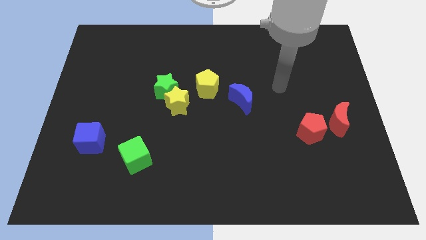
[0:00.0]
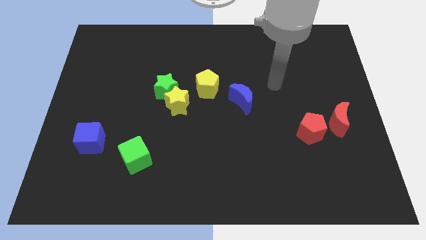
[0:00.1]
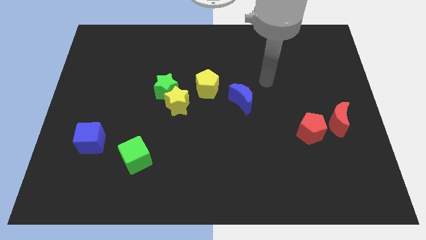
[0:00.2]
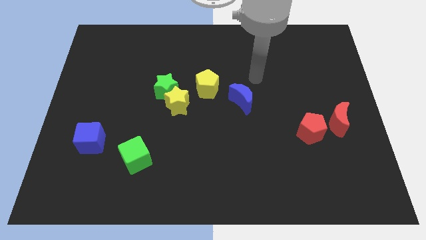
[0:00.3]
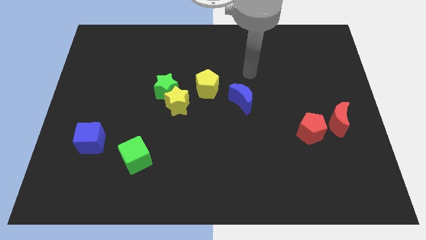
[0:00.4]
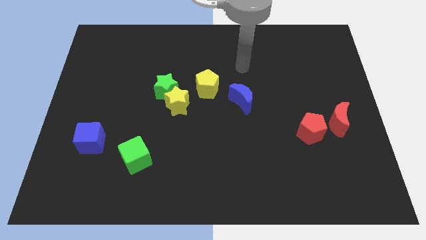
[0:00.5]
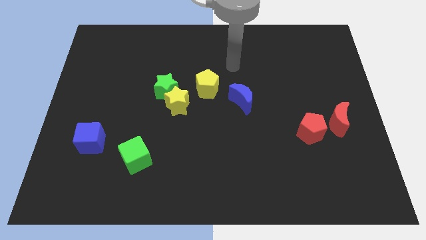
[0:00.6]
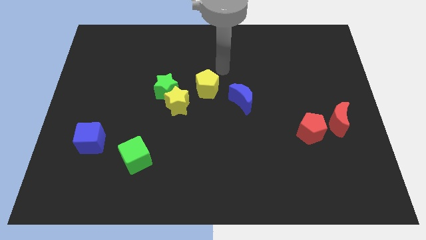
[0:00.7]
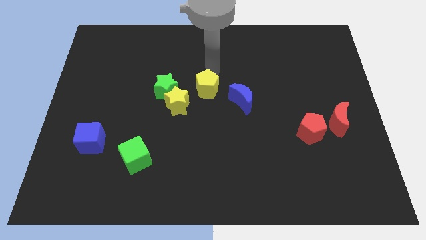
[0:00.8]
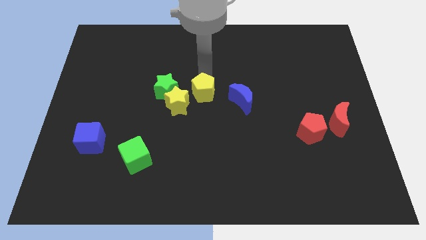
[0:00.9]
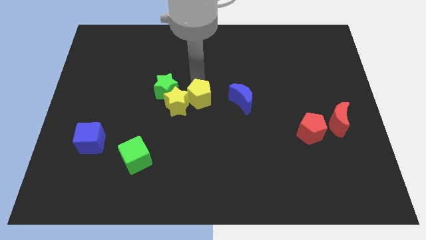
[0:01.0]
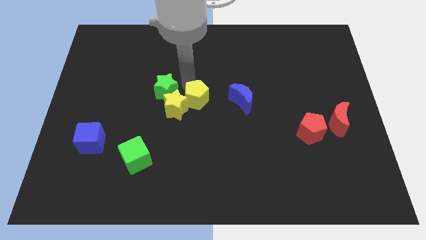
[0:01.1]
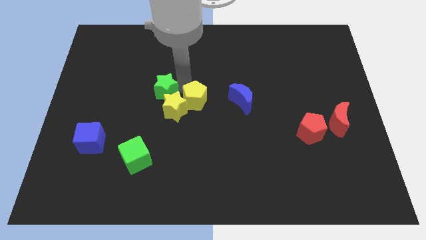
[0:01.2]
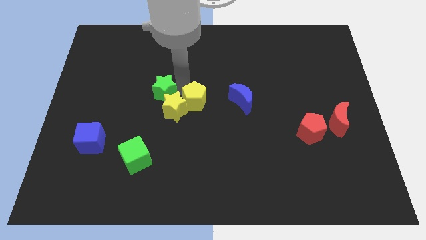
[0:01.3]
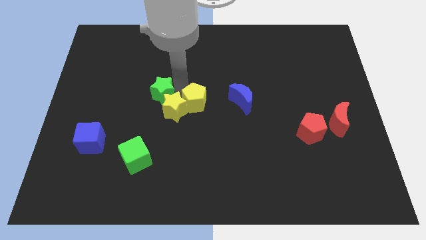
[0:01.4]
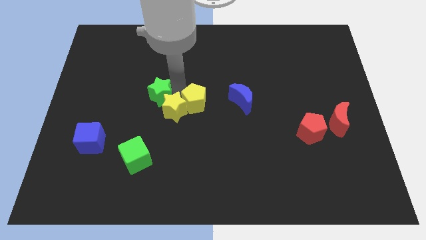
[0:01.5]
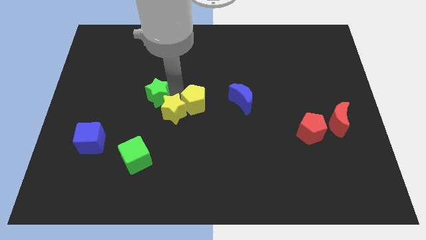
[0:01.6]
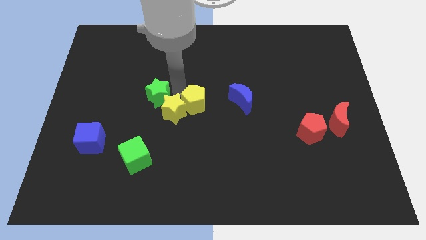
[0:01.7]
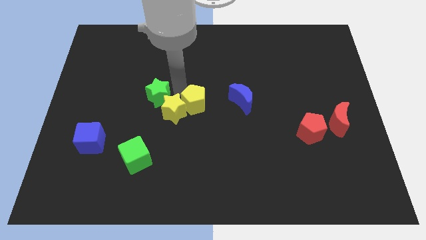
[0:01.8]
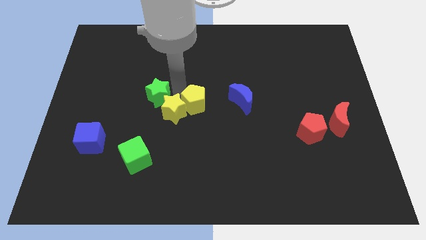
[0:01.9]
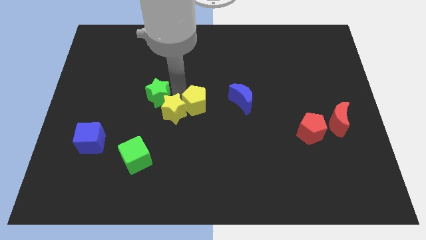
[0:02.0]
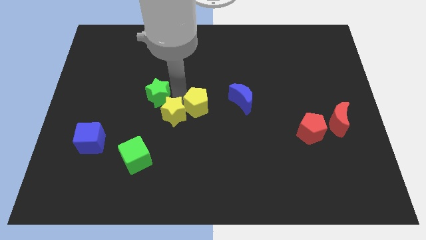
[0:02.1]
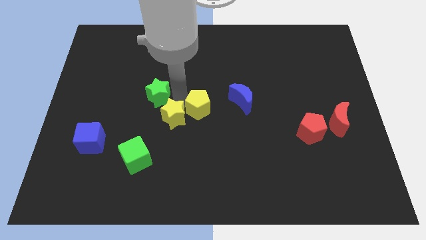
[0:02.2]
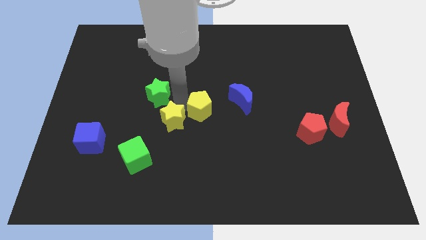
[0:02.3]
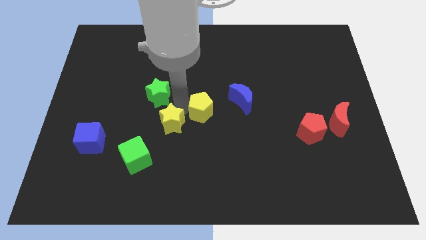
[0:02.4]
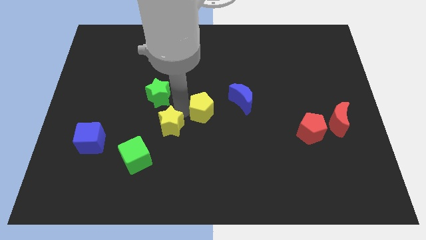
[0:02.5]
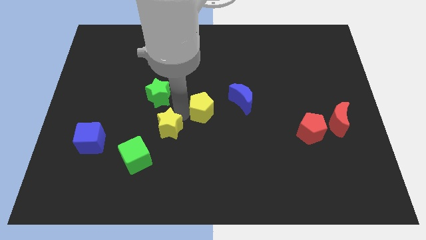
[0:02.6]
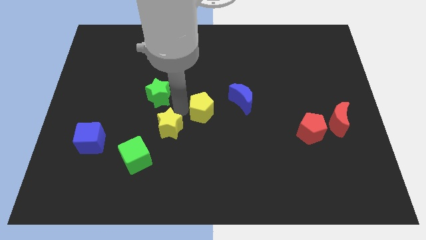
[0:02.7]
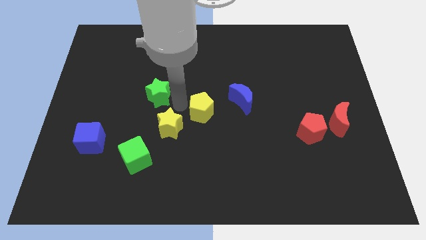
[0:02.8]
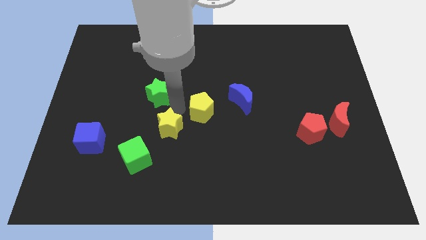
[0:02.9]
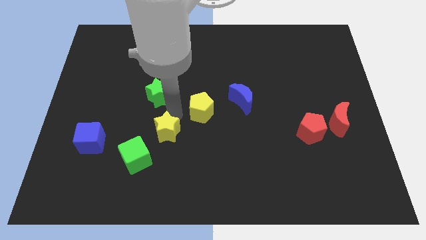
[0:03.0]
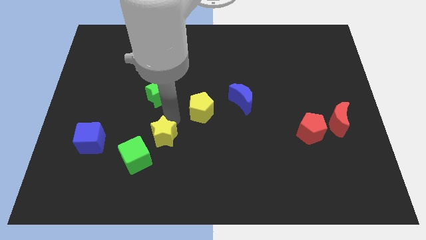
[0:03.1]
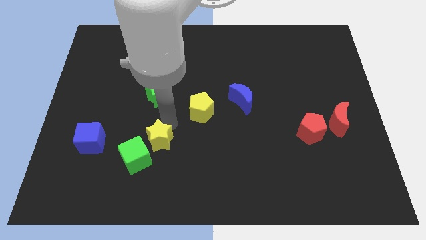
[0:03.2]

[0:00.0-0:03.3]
move the yellow star away from the green star and yellow pentagon

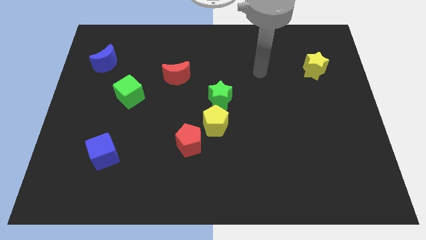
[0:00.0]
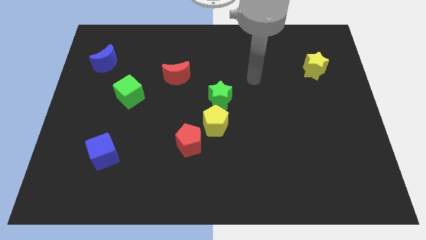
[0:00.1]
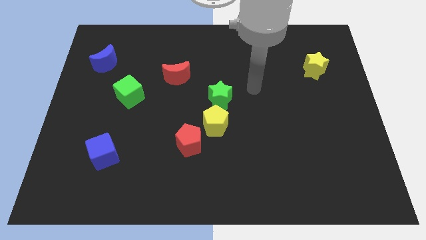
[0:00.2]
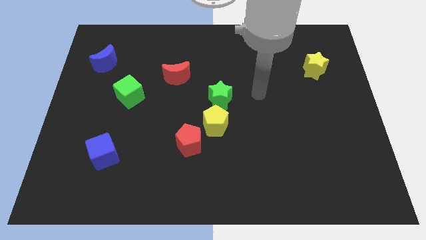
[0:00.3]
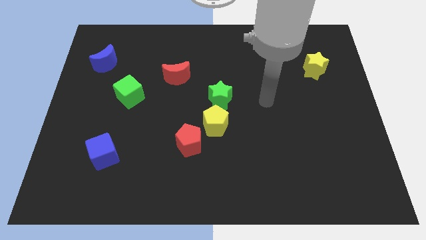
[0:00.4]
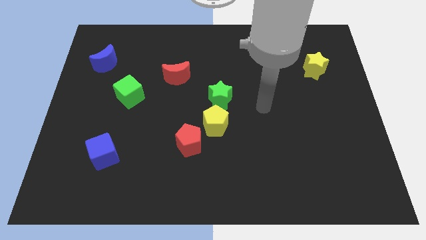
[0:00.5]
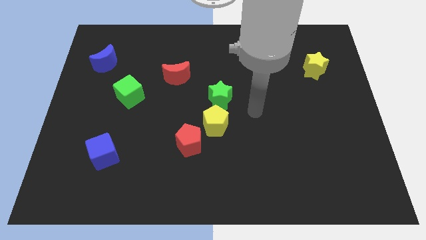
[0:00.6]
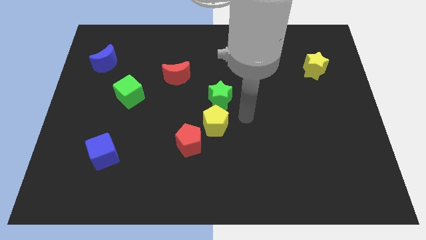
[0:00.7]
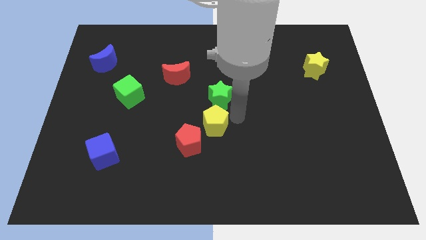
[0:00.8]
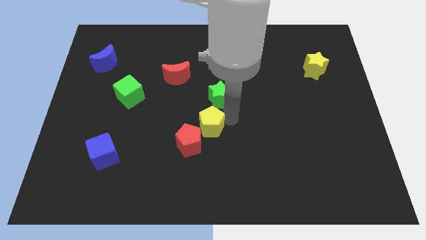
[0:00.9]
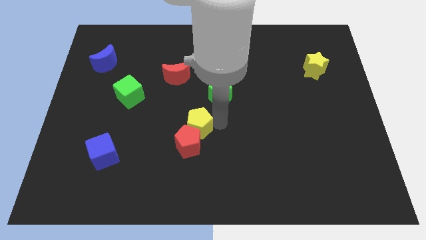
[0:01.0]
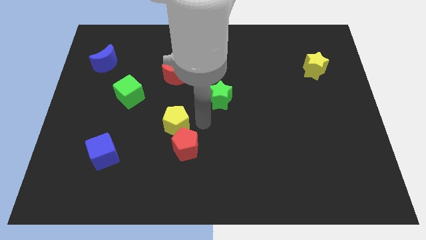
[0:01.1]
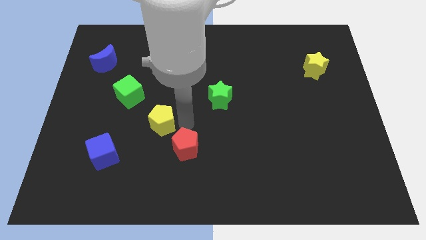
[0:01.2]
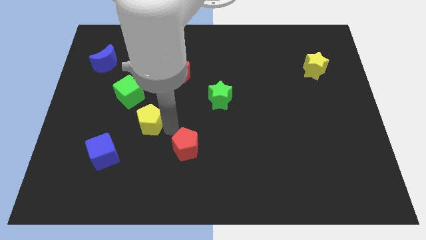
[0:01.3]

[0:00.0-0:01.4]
pull the red pentagon apart from the yellow pentagon

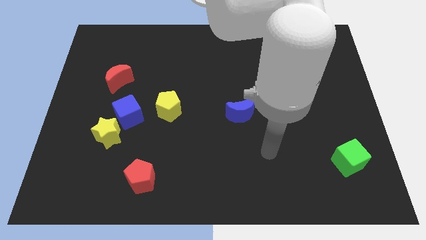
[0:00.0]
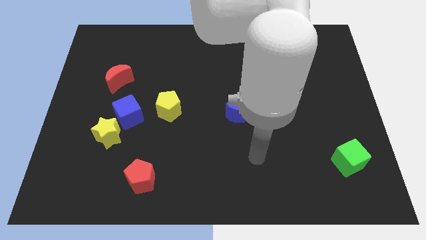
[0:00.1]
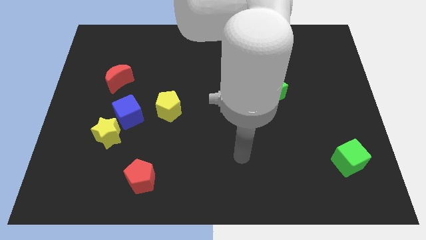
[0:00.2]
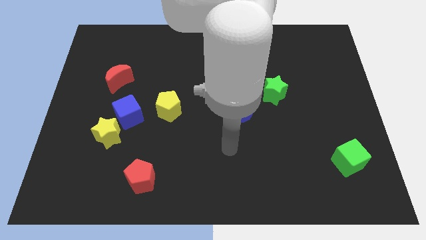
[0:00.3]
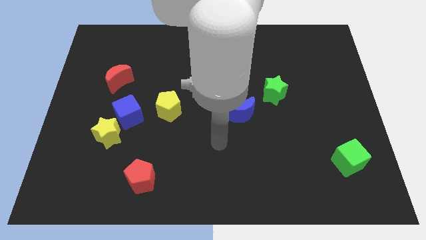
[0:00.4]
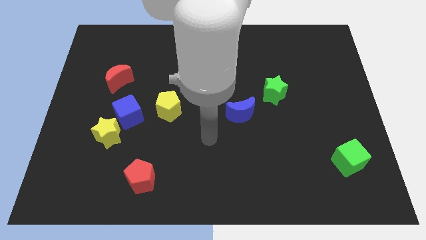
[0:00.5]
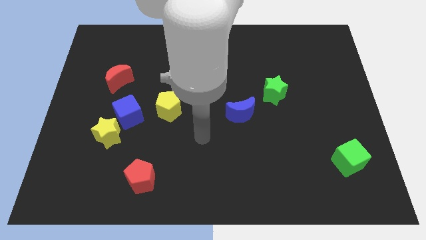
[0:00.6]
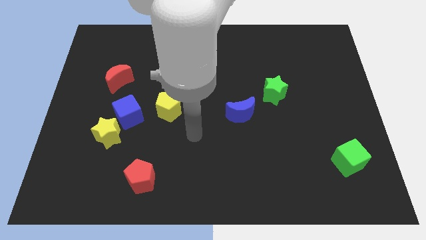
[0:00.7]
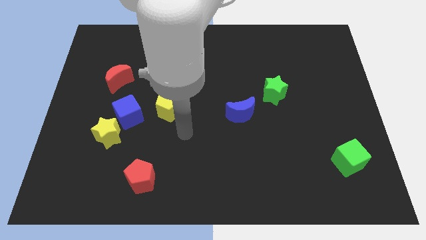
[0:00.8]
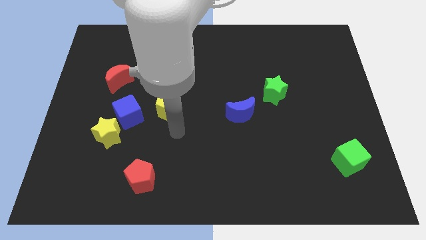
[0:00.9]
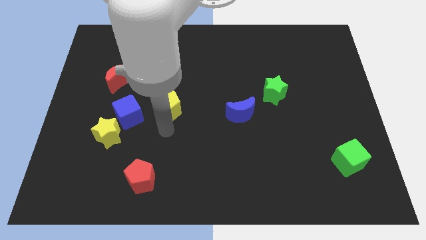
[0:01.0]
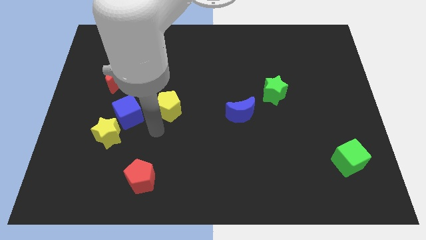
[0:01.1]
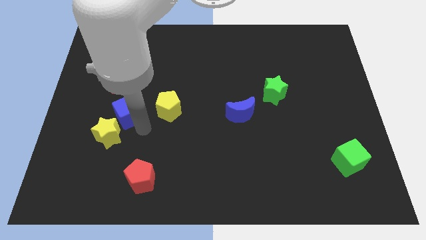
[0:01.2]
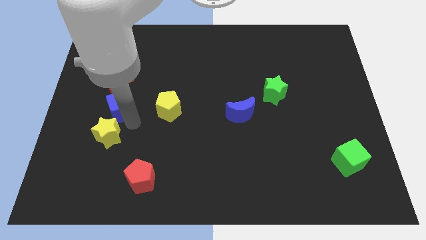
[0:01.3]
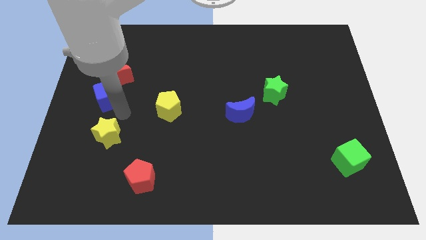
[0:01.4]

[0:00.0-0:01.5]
pull the yellow star apart from the blue cube

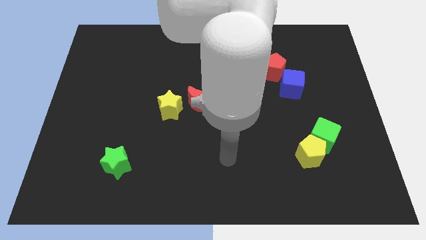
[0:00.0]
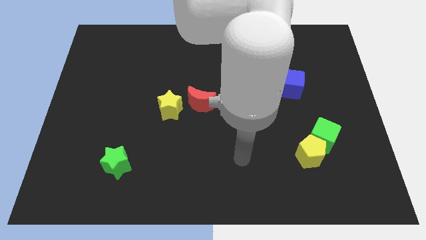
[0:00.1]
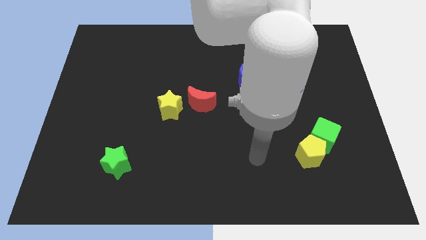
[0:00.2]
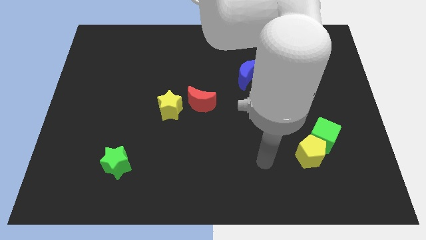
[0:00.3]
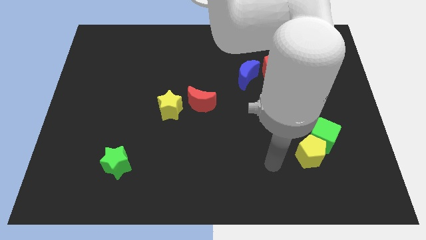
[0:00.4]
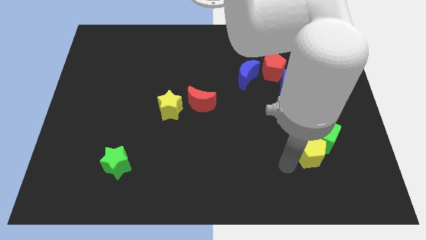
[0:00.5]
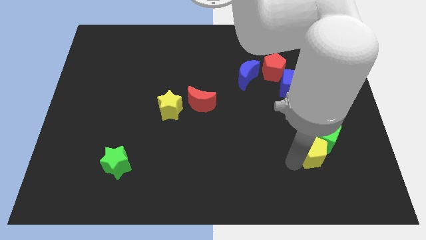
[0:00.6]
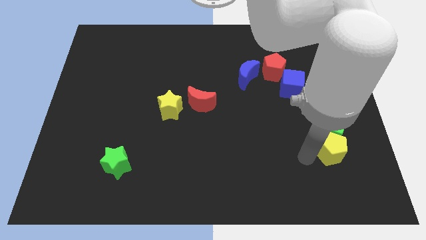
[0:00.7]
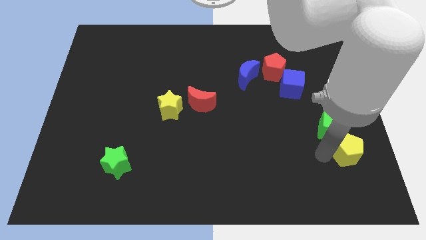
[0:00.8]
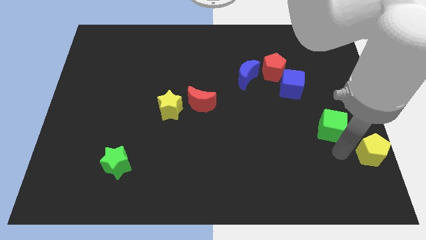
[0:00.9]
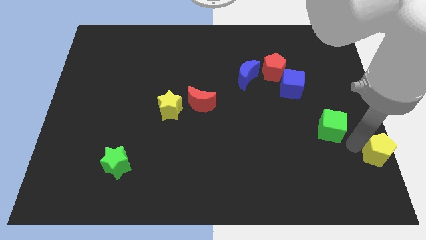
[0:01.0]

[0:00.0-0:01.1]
move the green cube away from the yellow pentagon

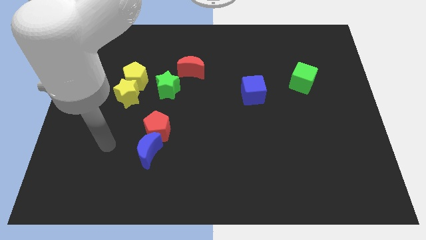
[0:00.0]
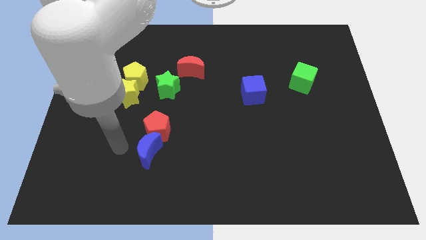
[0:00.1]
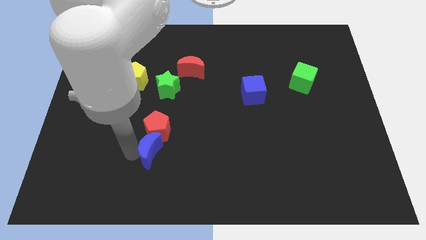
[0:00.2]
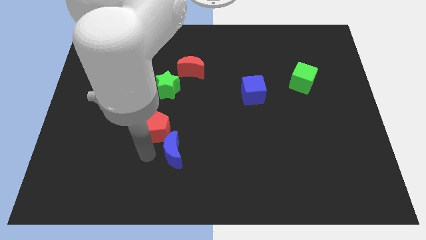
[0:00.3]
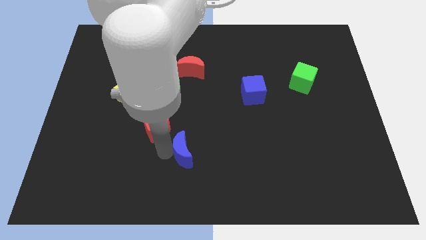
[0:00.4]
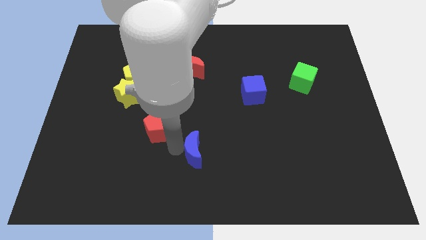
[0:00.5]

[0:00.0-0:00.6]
separate the red pentagon from the blue moon

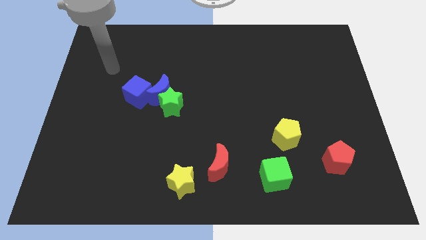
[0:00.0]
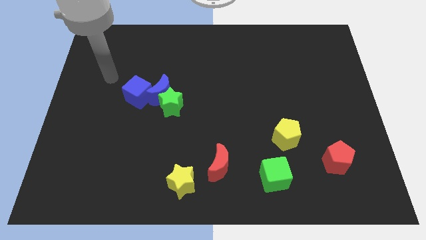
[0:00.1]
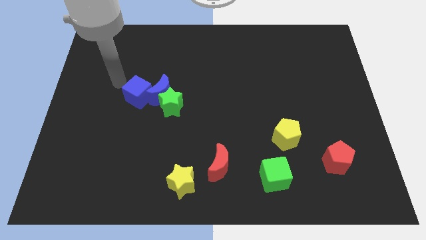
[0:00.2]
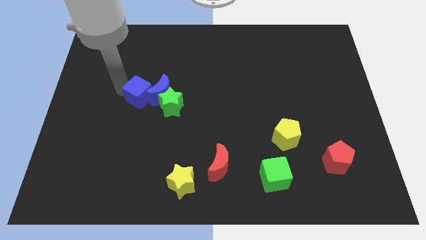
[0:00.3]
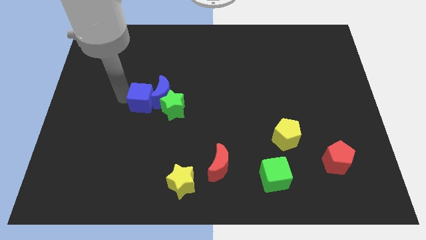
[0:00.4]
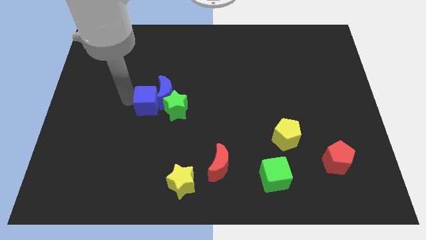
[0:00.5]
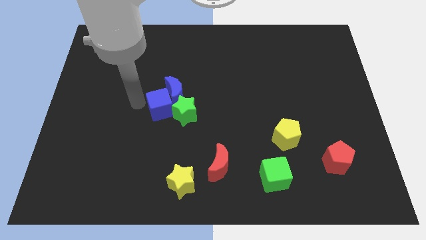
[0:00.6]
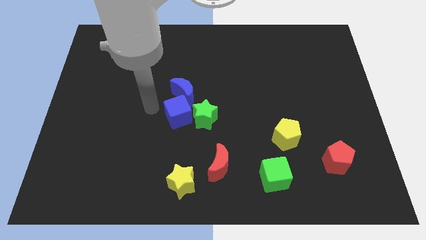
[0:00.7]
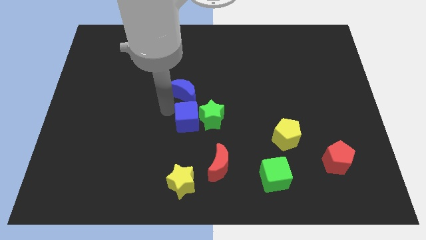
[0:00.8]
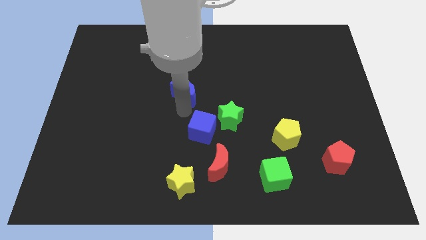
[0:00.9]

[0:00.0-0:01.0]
pull the blue moon apart from the green star and blue cube

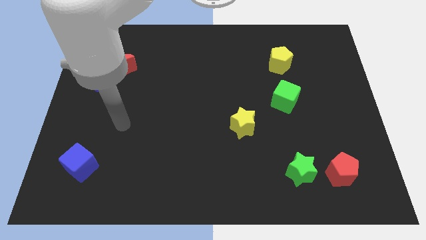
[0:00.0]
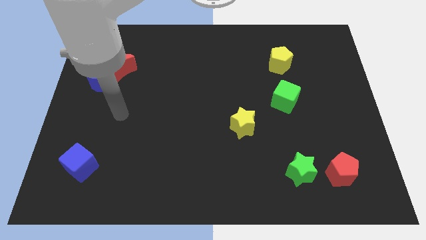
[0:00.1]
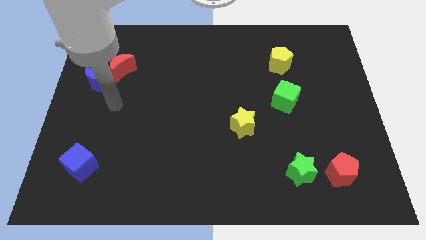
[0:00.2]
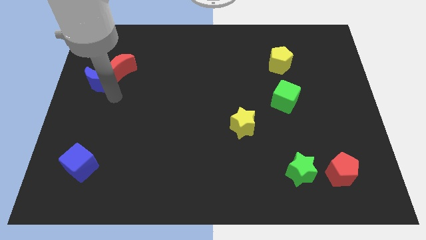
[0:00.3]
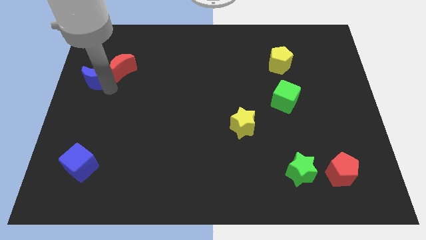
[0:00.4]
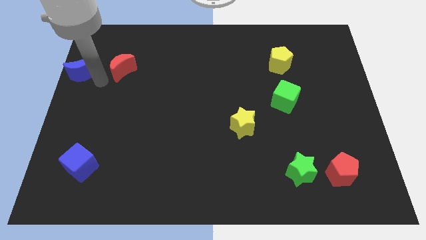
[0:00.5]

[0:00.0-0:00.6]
separate the red moon from the blue moon
